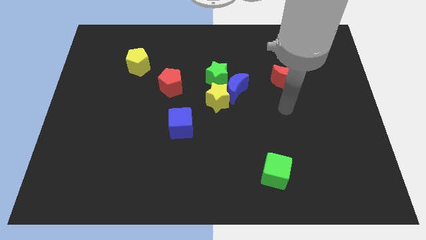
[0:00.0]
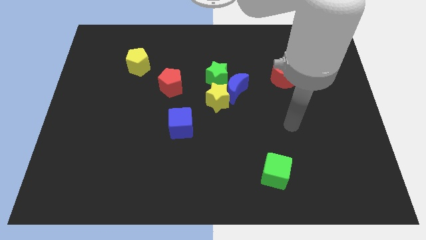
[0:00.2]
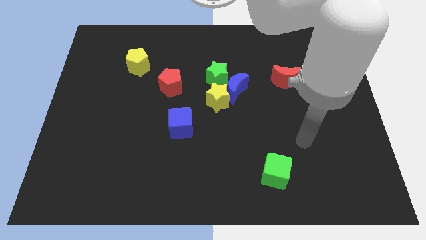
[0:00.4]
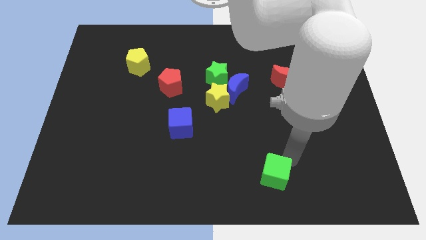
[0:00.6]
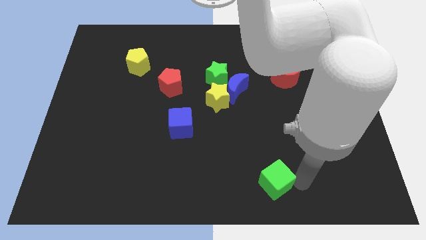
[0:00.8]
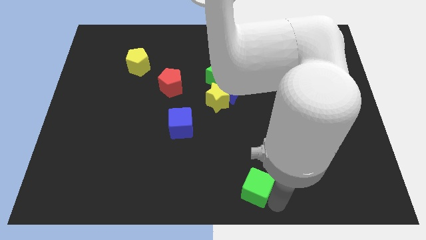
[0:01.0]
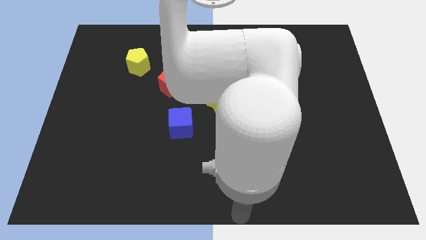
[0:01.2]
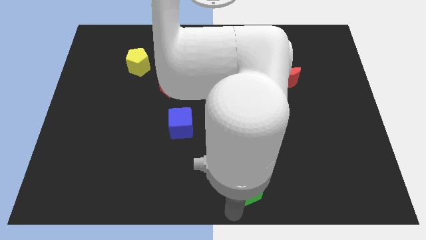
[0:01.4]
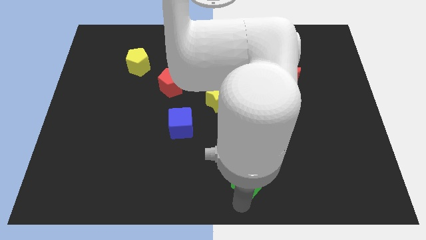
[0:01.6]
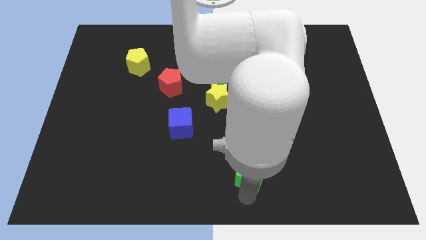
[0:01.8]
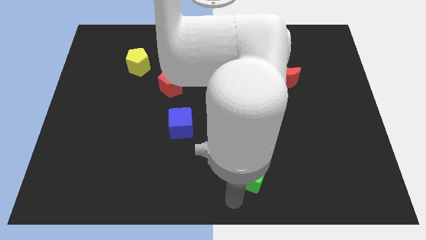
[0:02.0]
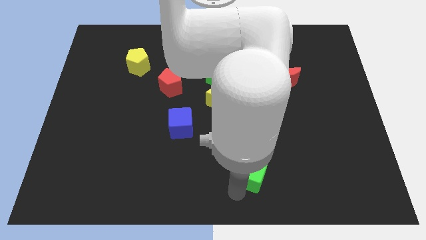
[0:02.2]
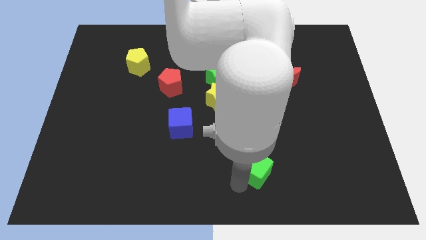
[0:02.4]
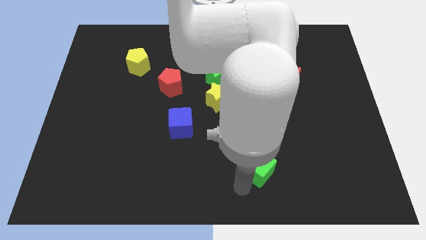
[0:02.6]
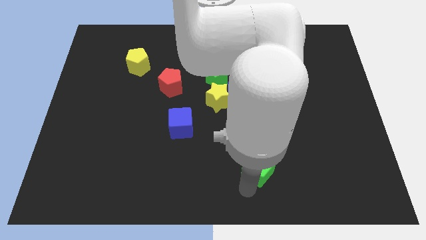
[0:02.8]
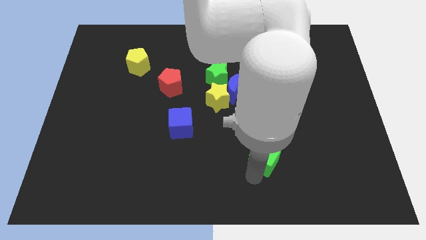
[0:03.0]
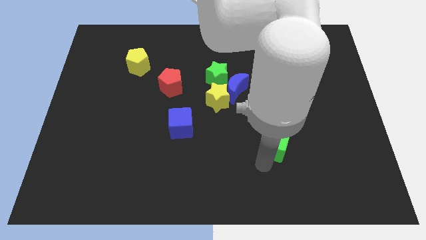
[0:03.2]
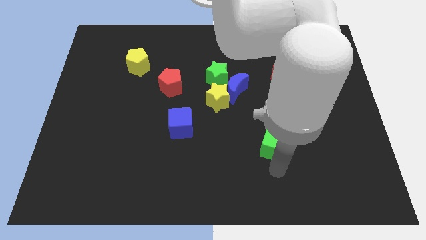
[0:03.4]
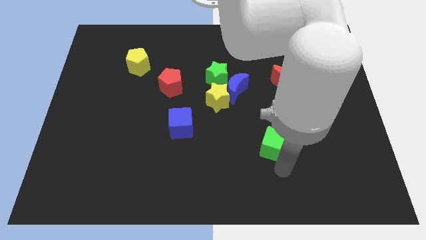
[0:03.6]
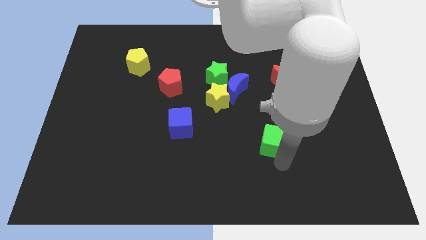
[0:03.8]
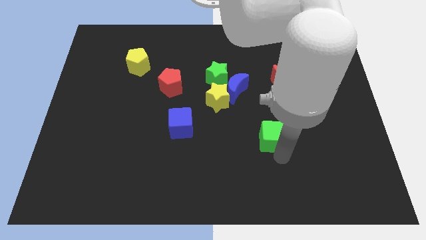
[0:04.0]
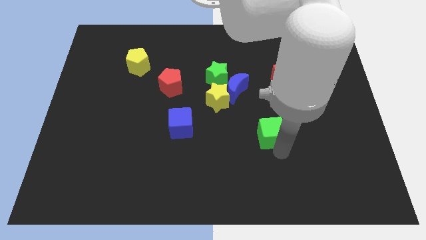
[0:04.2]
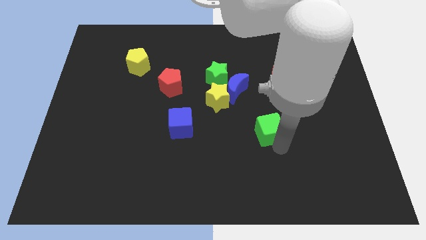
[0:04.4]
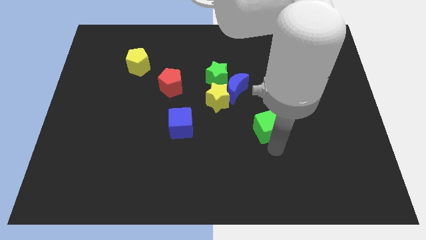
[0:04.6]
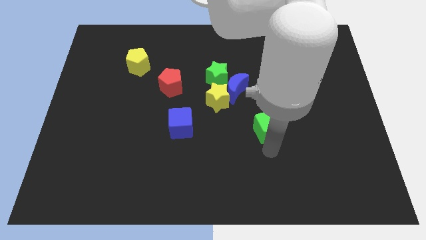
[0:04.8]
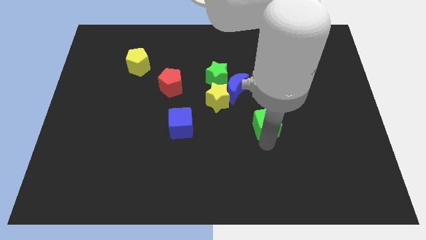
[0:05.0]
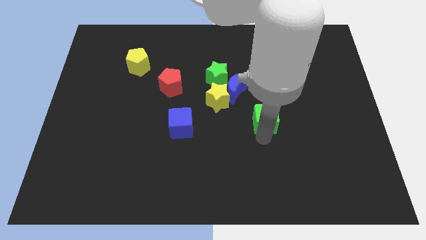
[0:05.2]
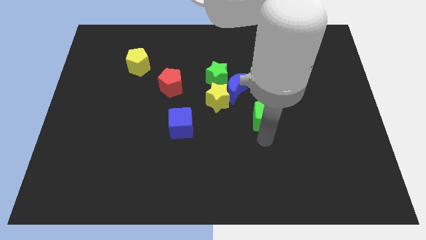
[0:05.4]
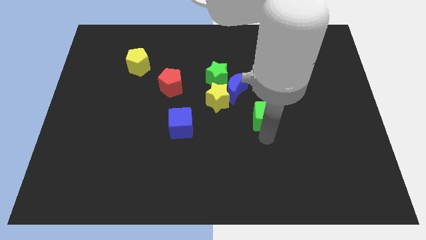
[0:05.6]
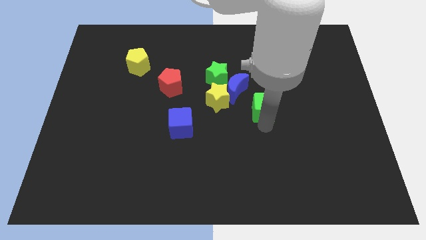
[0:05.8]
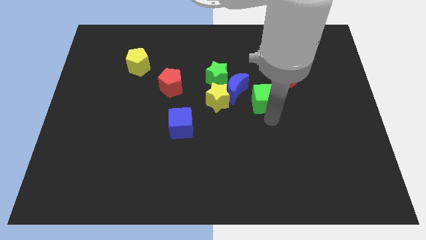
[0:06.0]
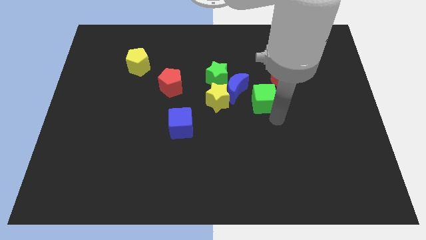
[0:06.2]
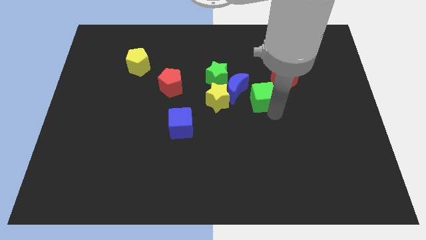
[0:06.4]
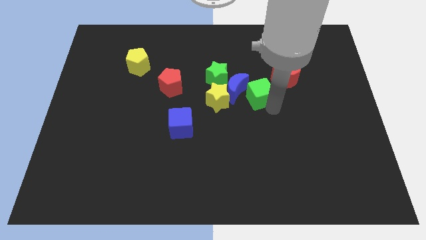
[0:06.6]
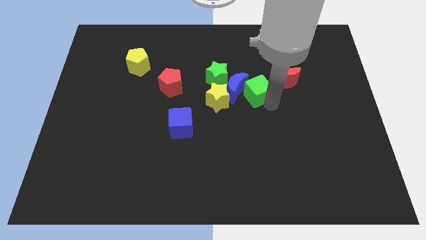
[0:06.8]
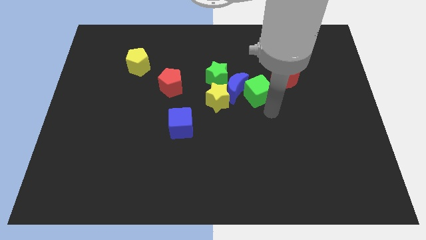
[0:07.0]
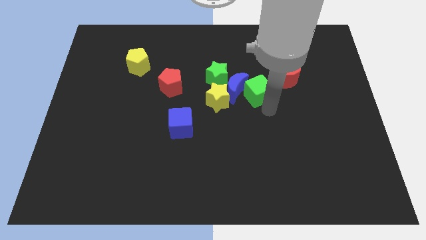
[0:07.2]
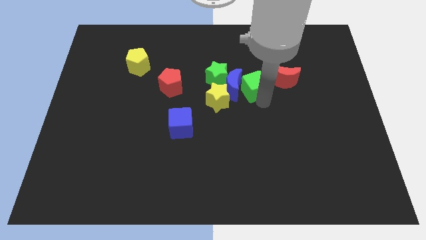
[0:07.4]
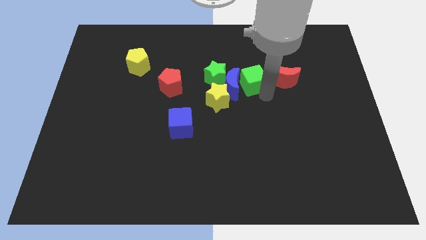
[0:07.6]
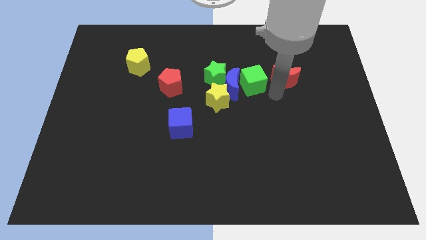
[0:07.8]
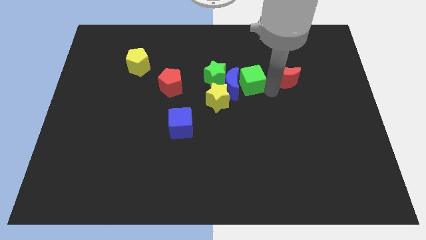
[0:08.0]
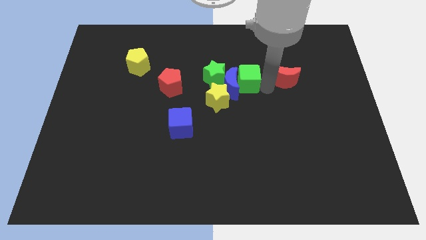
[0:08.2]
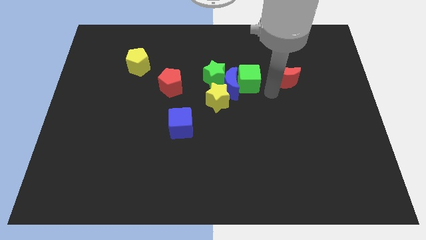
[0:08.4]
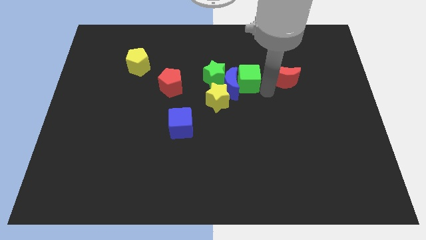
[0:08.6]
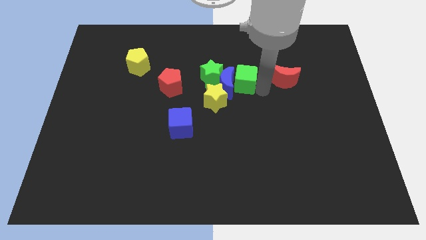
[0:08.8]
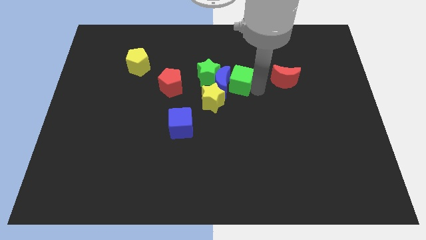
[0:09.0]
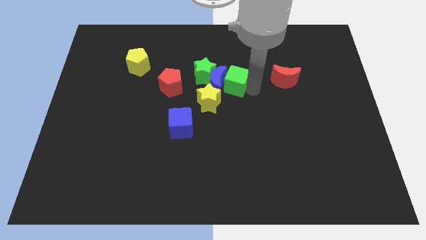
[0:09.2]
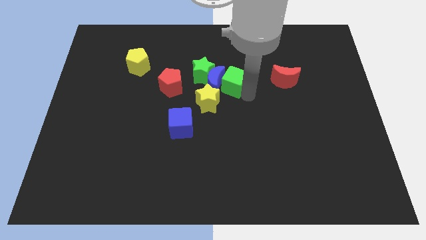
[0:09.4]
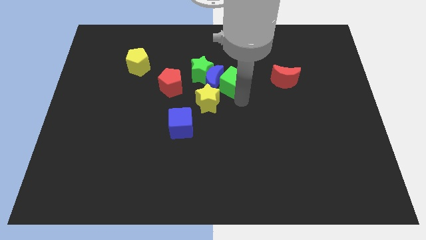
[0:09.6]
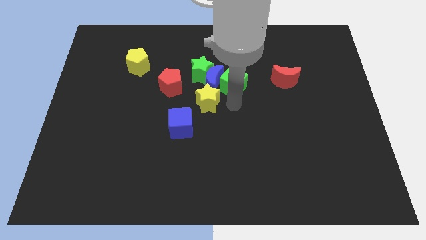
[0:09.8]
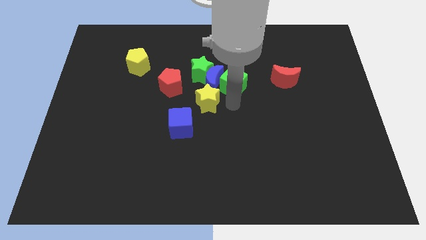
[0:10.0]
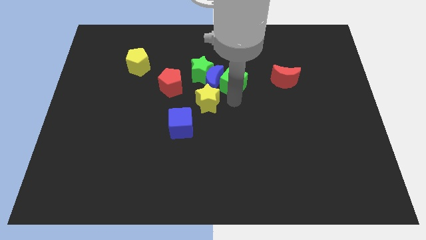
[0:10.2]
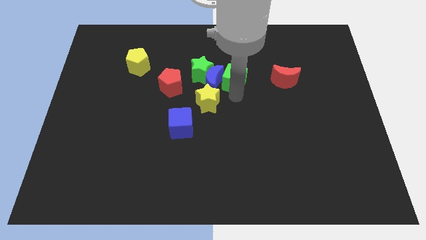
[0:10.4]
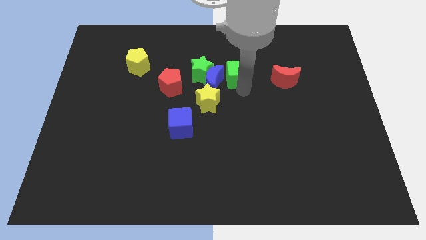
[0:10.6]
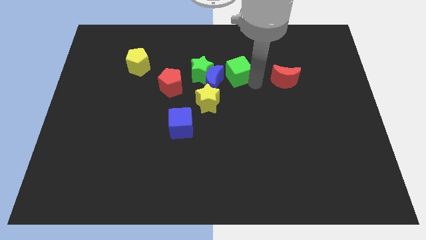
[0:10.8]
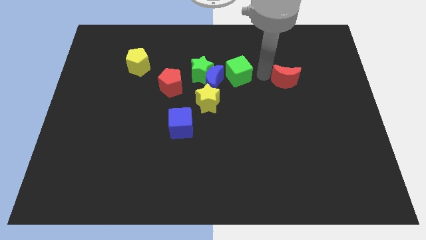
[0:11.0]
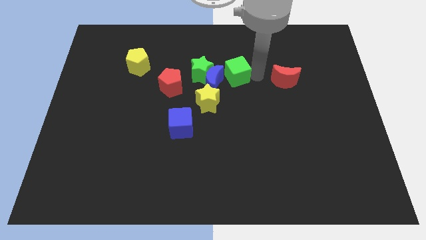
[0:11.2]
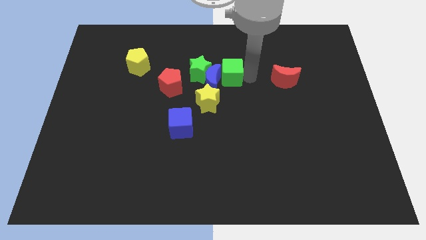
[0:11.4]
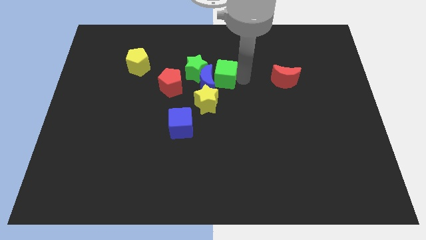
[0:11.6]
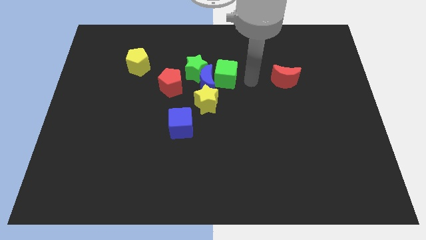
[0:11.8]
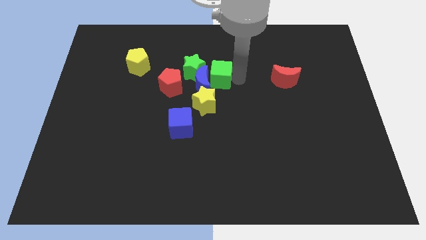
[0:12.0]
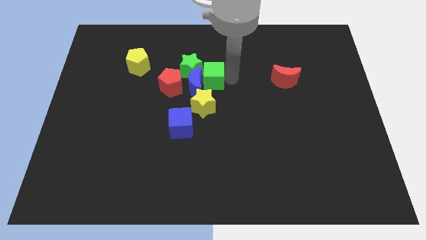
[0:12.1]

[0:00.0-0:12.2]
move the green cube next to the green star

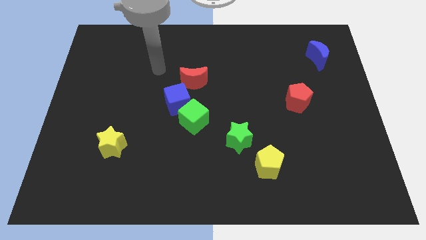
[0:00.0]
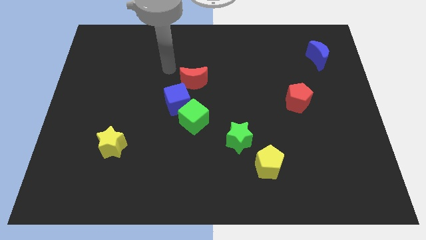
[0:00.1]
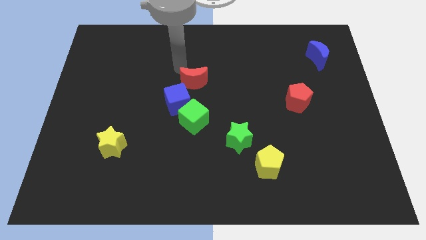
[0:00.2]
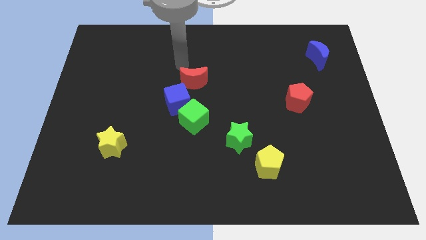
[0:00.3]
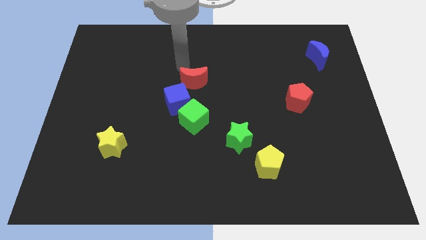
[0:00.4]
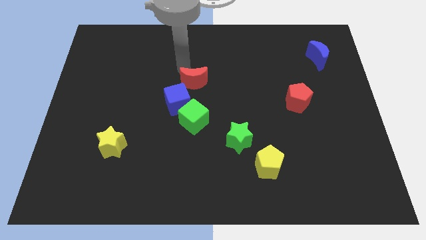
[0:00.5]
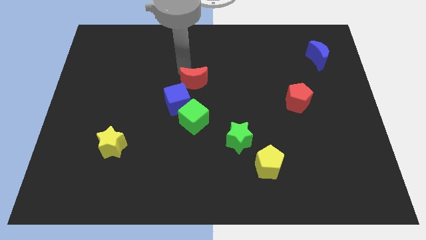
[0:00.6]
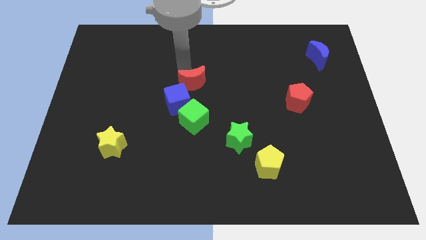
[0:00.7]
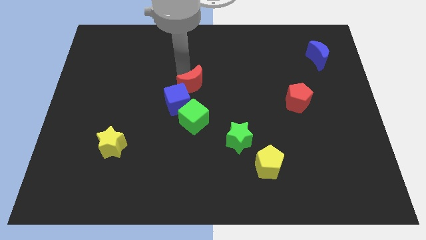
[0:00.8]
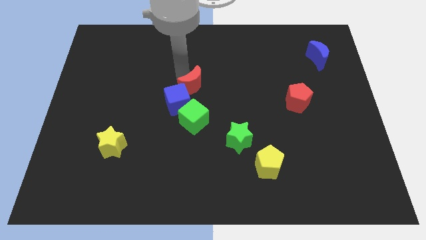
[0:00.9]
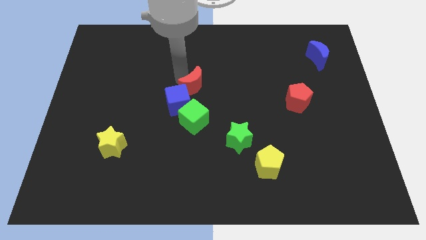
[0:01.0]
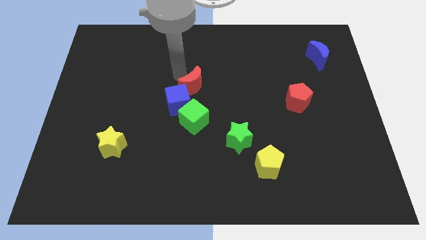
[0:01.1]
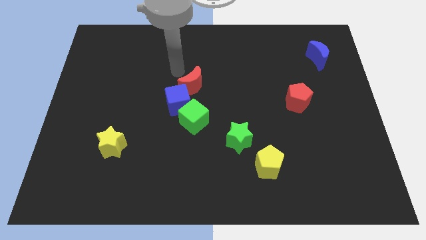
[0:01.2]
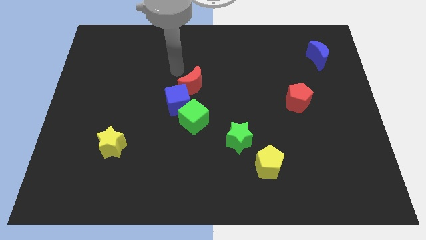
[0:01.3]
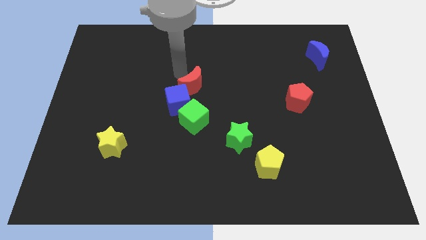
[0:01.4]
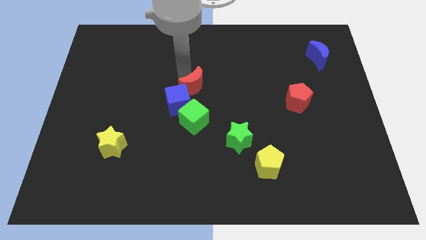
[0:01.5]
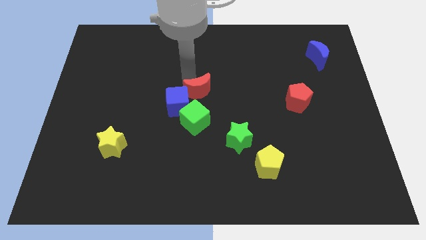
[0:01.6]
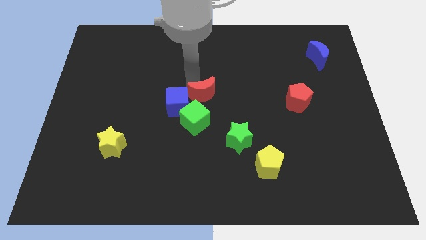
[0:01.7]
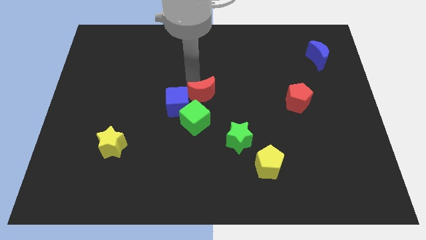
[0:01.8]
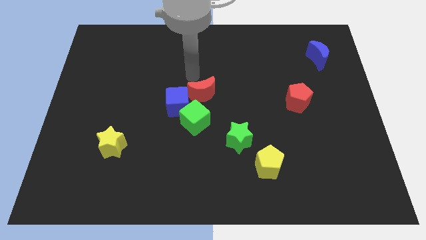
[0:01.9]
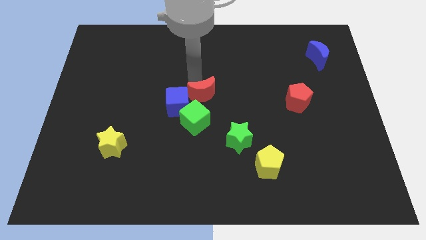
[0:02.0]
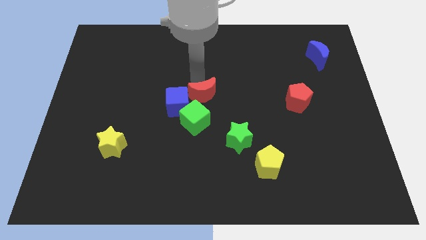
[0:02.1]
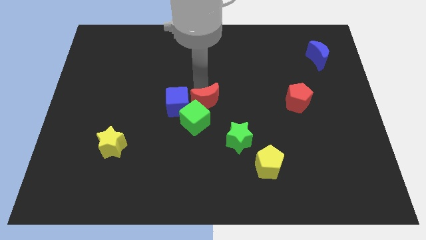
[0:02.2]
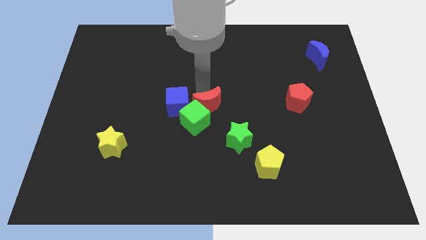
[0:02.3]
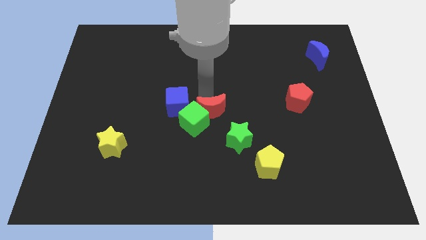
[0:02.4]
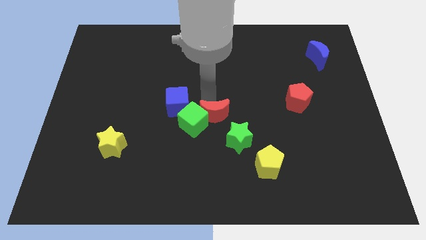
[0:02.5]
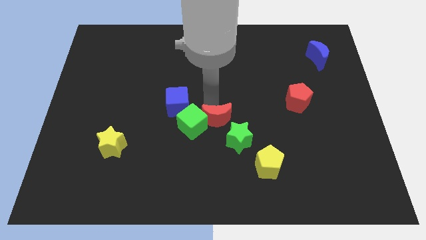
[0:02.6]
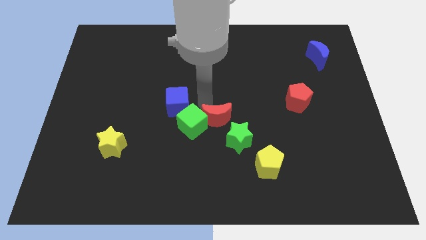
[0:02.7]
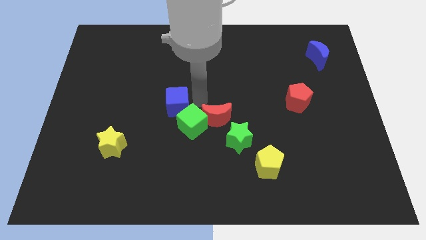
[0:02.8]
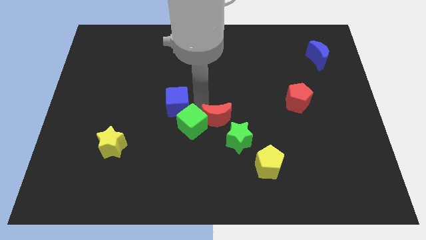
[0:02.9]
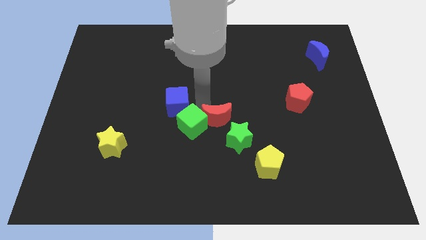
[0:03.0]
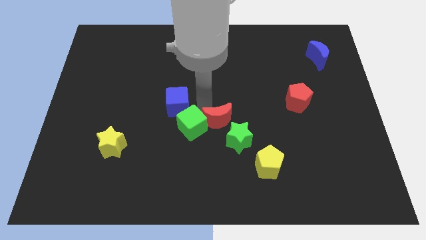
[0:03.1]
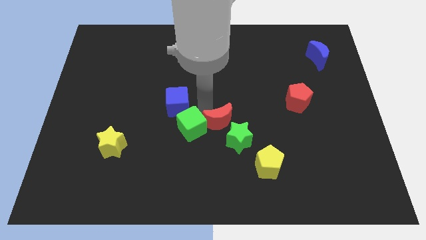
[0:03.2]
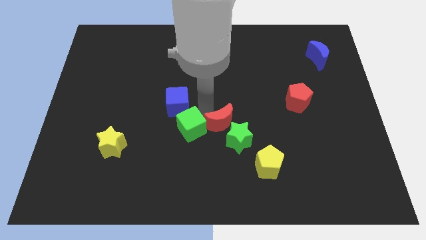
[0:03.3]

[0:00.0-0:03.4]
push the red moon towards the green star
